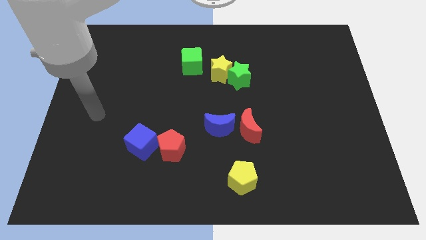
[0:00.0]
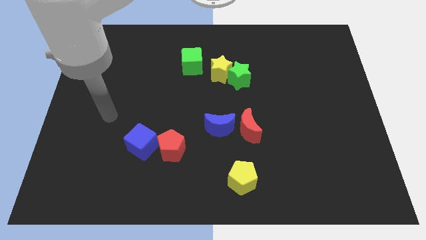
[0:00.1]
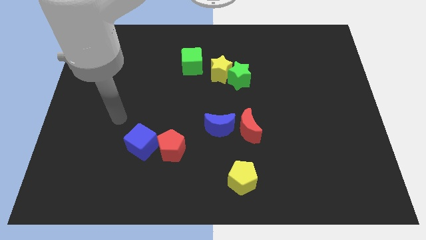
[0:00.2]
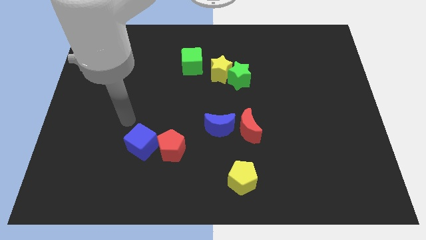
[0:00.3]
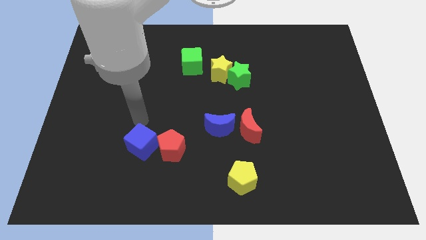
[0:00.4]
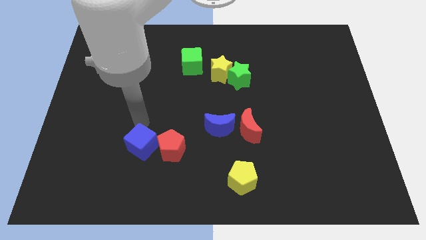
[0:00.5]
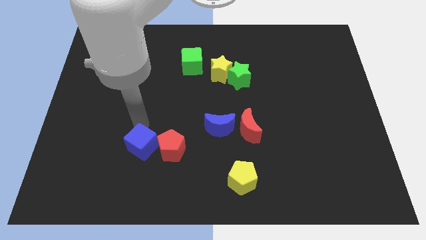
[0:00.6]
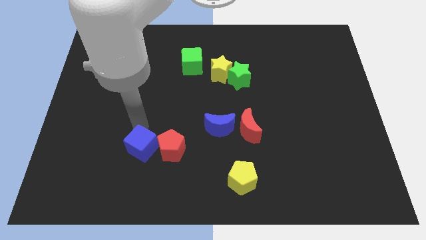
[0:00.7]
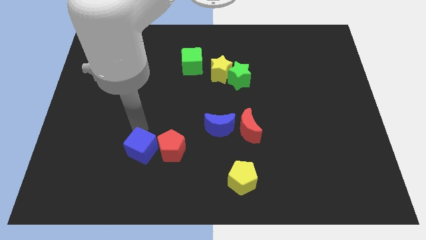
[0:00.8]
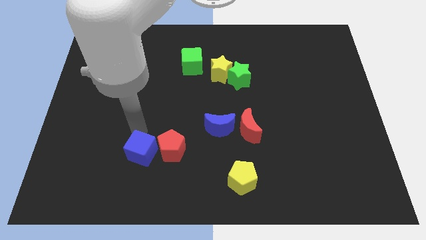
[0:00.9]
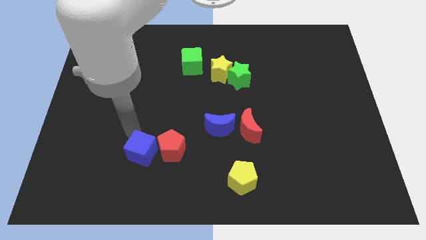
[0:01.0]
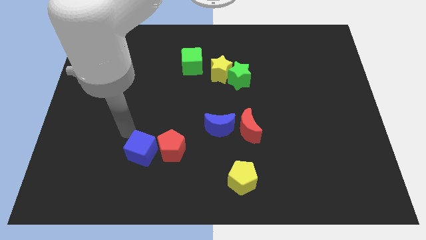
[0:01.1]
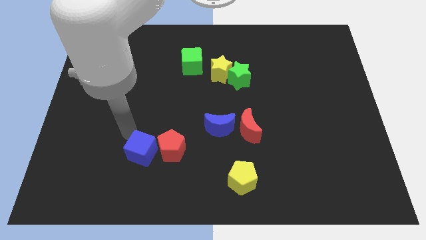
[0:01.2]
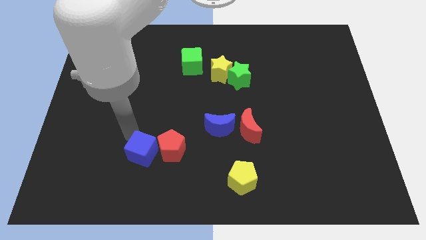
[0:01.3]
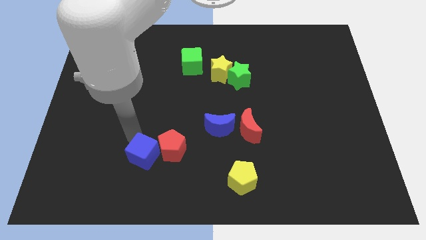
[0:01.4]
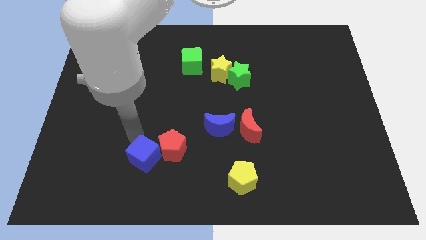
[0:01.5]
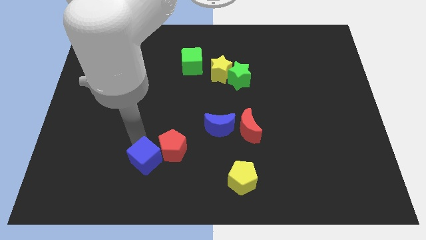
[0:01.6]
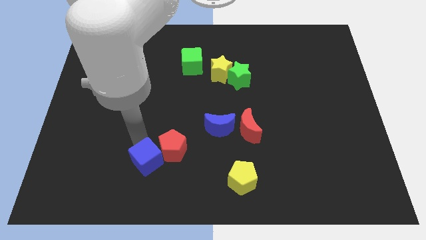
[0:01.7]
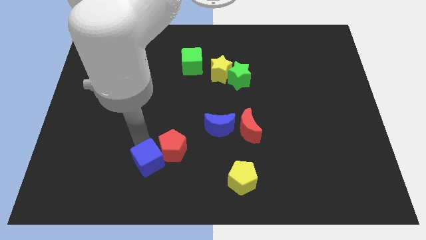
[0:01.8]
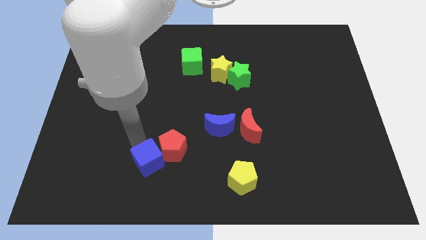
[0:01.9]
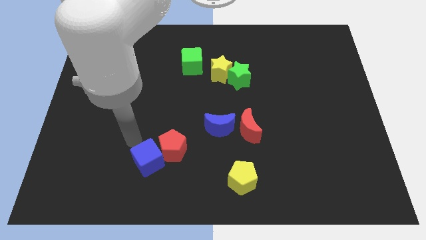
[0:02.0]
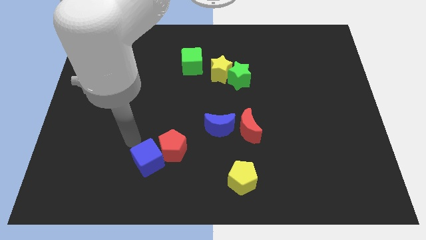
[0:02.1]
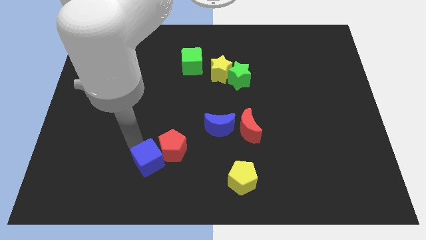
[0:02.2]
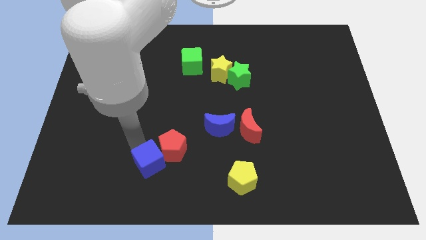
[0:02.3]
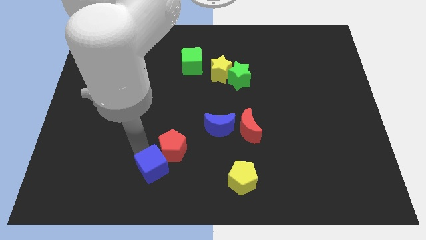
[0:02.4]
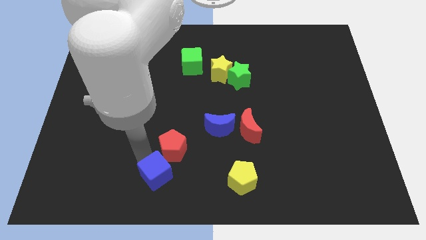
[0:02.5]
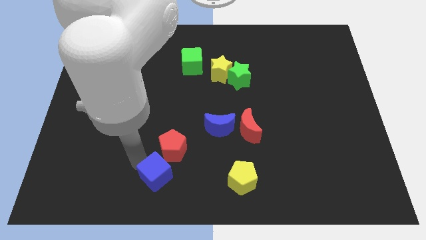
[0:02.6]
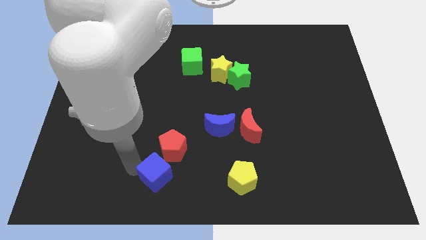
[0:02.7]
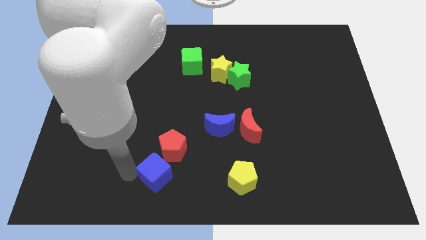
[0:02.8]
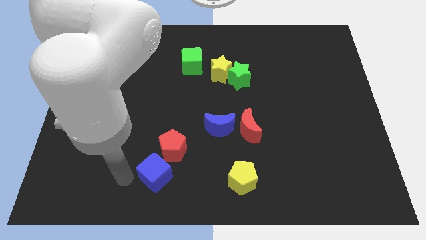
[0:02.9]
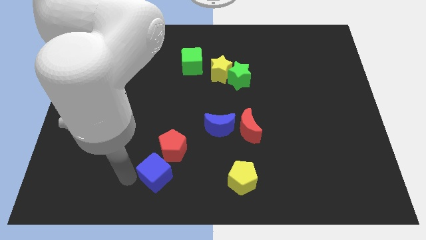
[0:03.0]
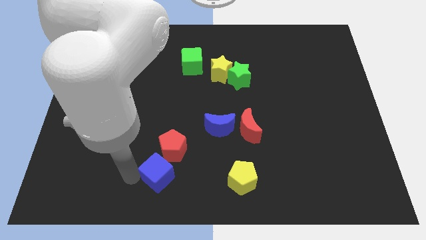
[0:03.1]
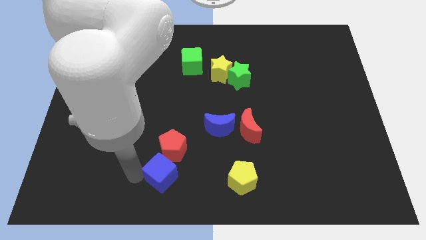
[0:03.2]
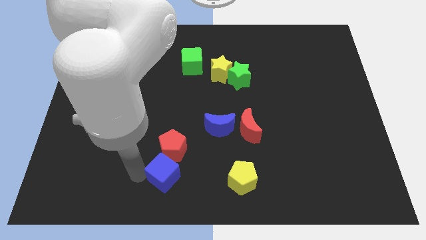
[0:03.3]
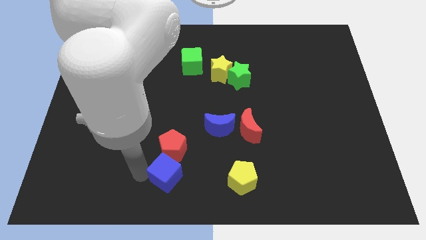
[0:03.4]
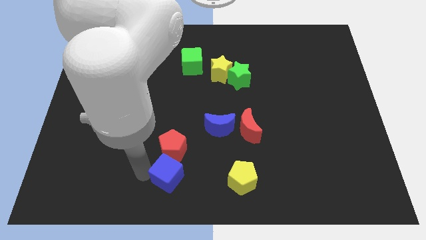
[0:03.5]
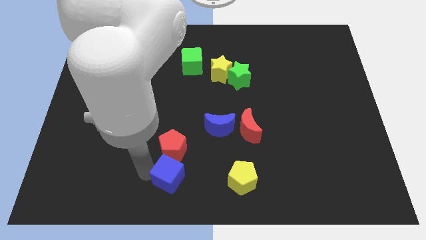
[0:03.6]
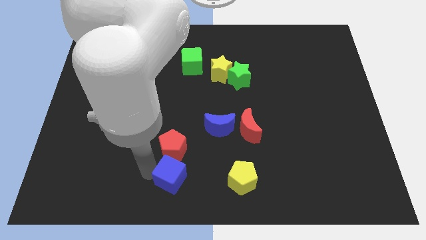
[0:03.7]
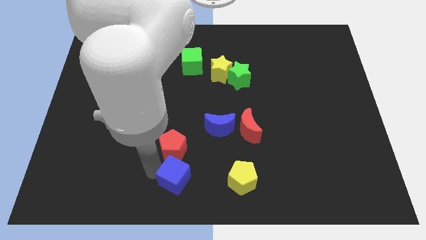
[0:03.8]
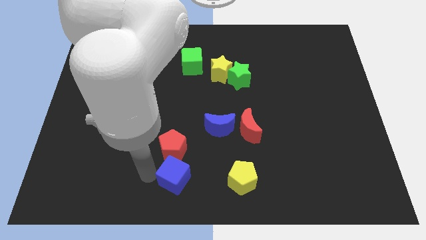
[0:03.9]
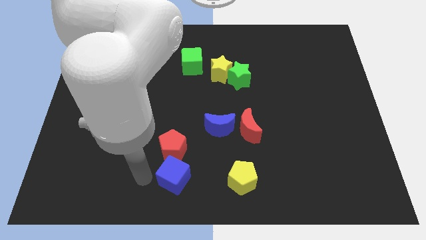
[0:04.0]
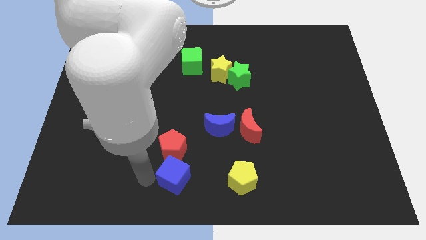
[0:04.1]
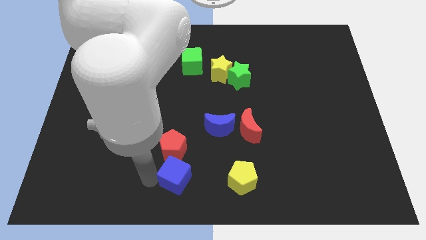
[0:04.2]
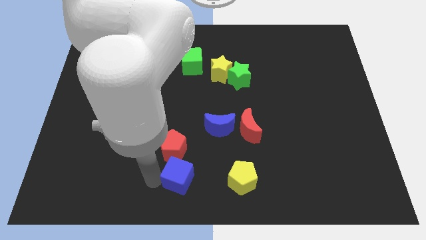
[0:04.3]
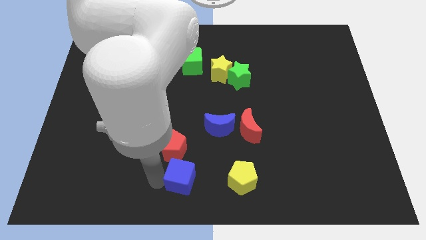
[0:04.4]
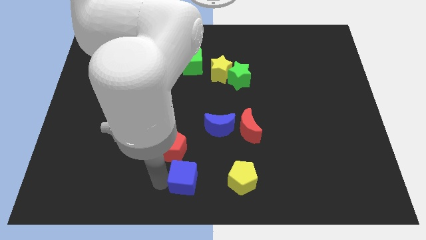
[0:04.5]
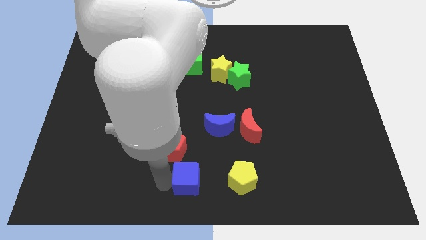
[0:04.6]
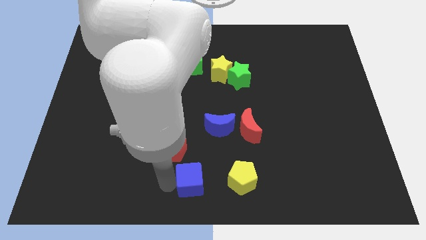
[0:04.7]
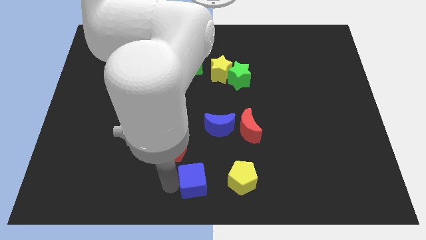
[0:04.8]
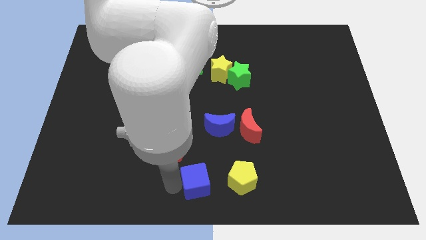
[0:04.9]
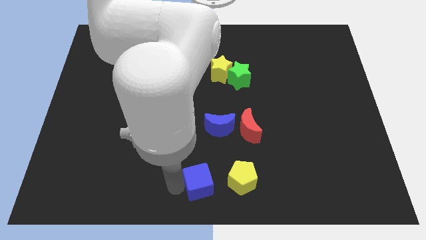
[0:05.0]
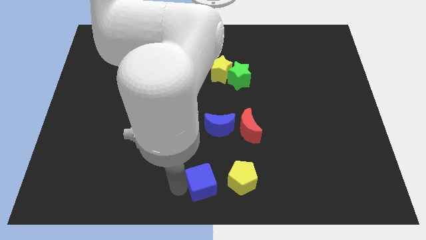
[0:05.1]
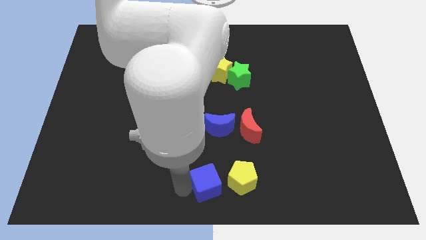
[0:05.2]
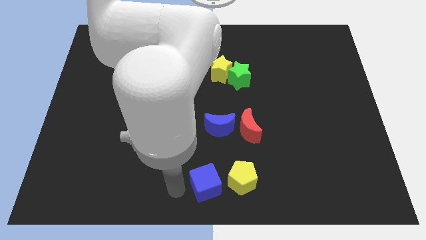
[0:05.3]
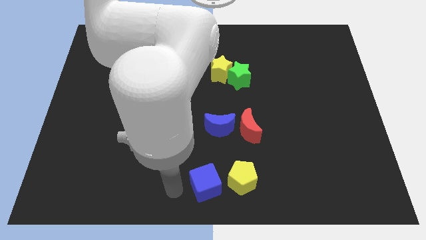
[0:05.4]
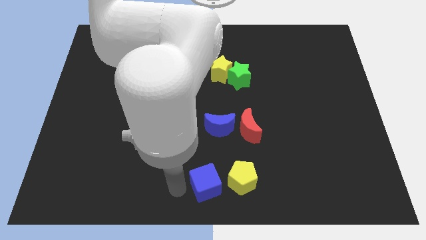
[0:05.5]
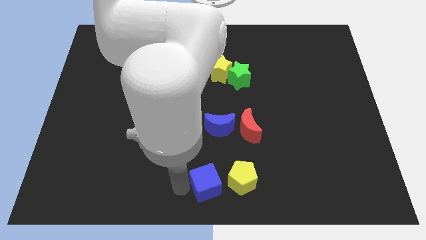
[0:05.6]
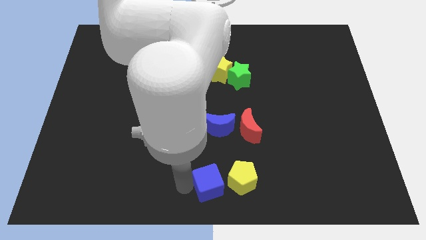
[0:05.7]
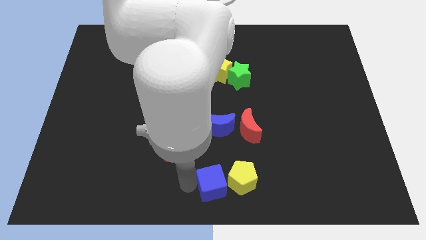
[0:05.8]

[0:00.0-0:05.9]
move the blue cube close to the yellow pentagon

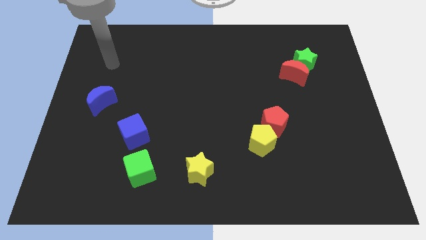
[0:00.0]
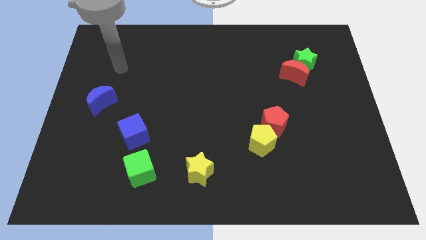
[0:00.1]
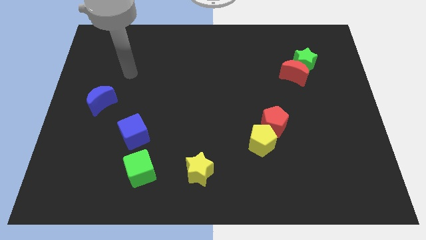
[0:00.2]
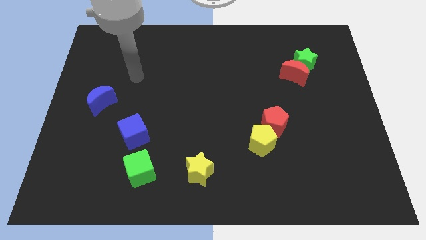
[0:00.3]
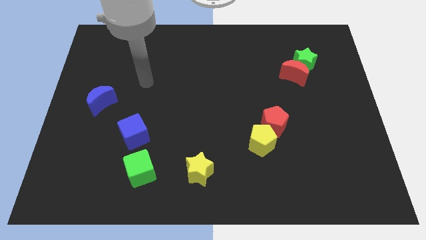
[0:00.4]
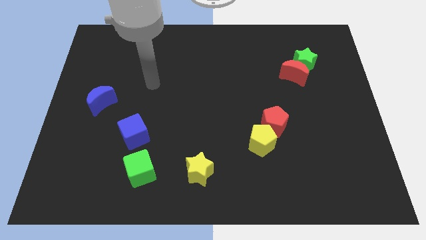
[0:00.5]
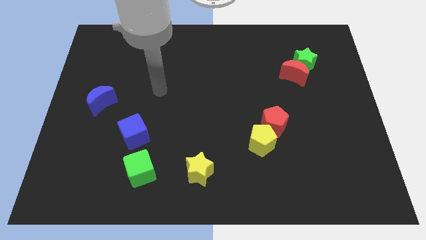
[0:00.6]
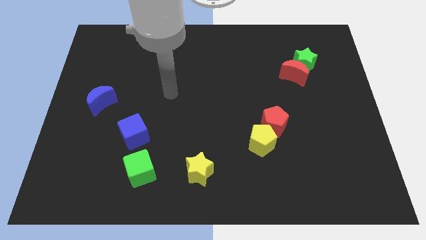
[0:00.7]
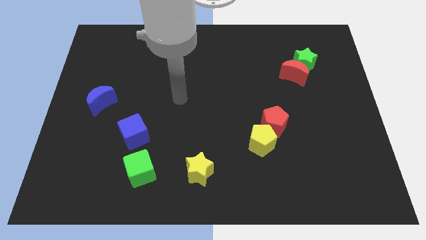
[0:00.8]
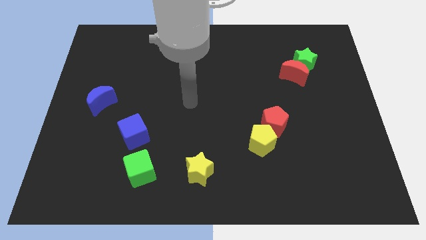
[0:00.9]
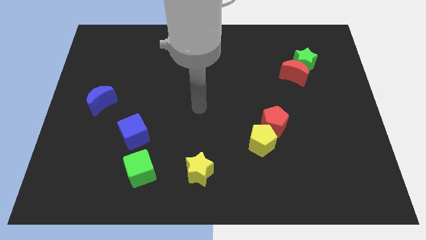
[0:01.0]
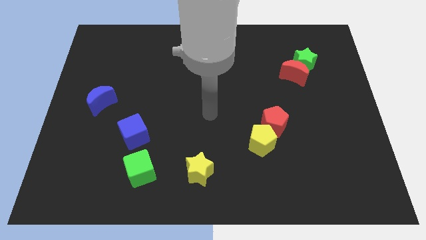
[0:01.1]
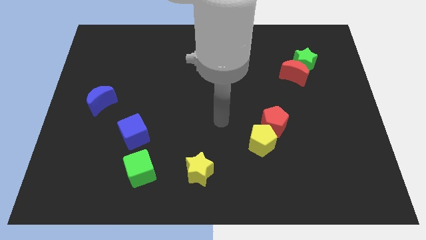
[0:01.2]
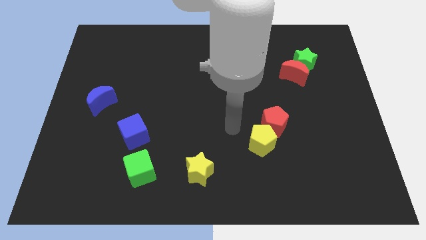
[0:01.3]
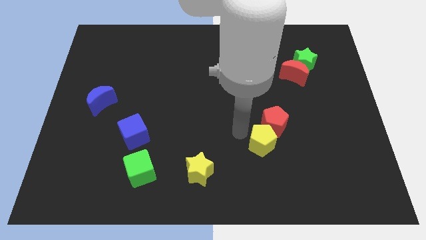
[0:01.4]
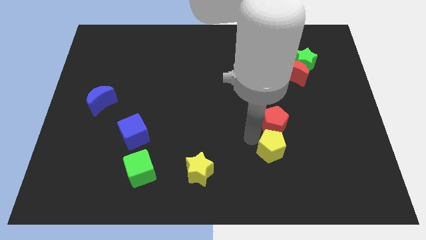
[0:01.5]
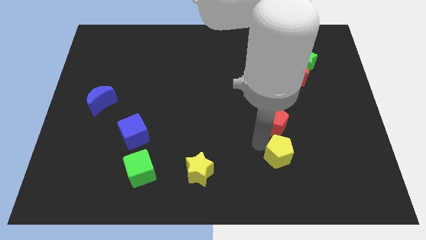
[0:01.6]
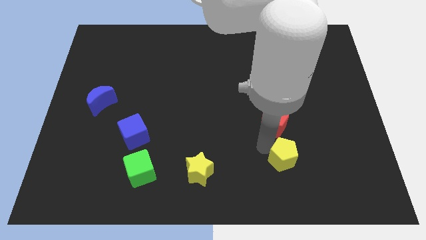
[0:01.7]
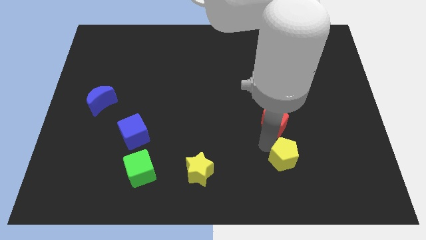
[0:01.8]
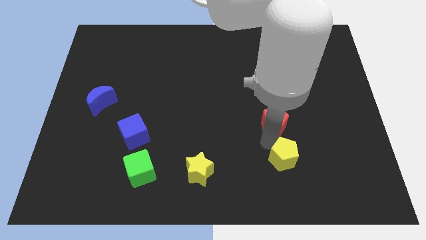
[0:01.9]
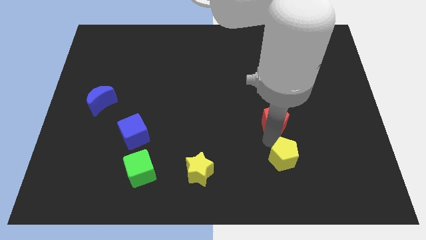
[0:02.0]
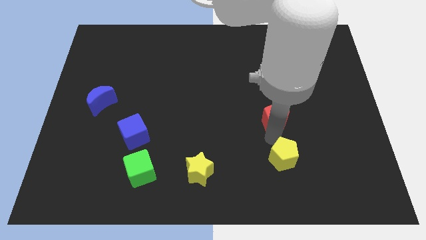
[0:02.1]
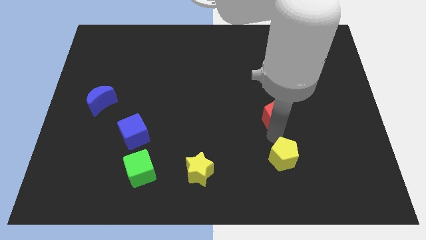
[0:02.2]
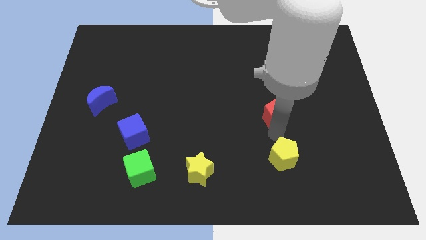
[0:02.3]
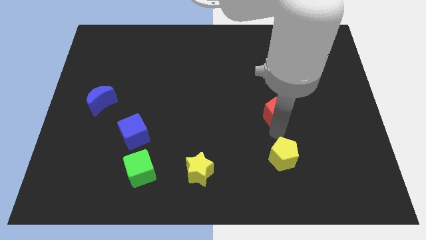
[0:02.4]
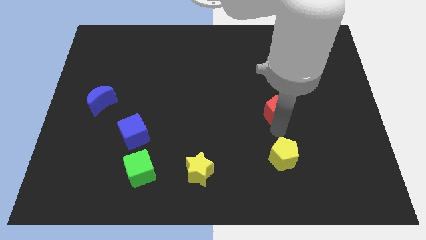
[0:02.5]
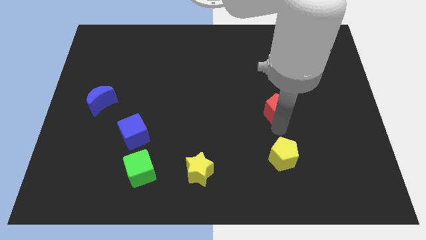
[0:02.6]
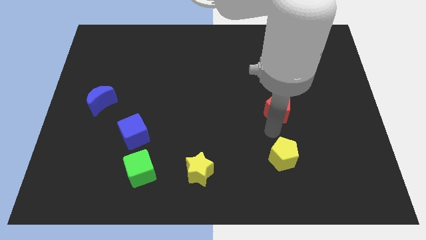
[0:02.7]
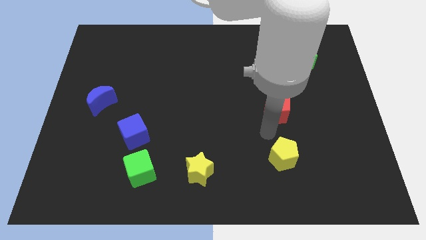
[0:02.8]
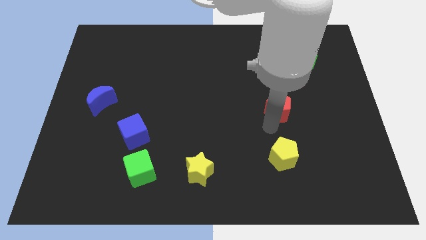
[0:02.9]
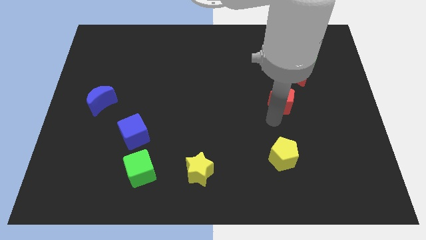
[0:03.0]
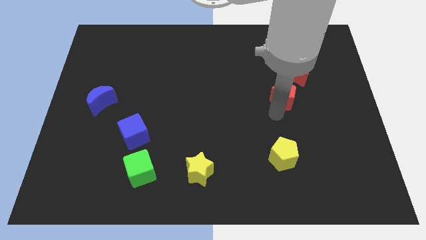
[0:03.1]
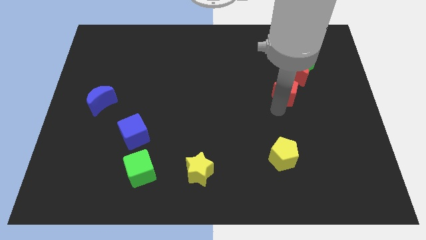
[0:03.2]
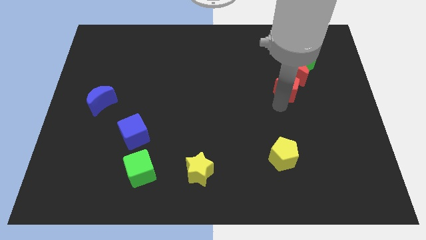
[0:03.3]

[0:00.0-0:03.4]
slide the red pentagon close to the red moon
